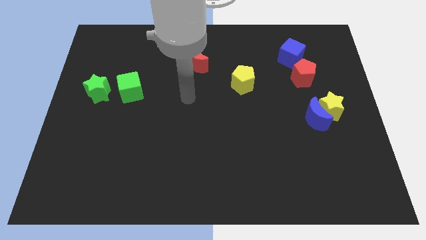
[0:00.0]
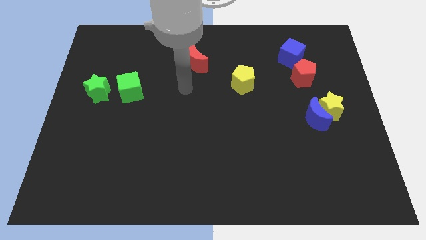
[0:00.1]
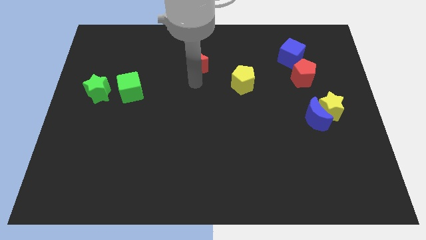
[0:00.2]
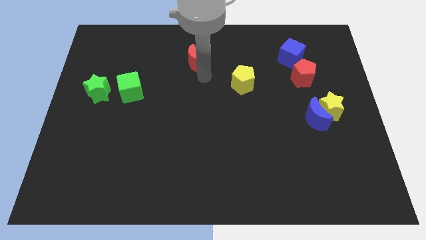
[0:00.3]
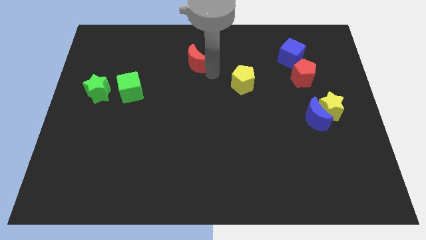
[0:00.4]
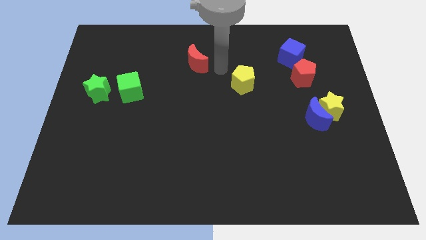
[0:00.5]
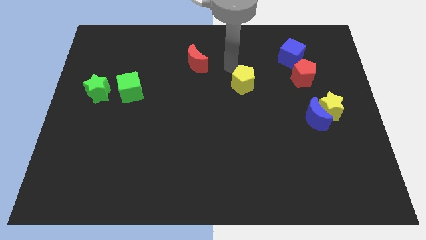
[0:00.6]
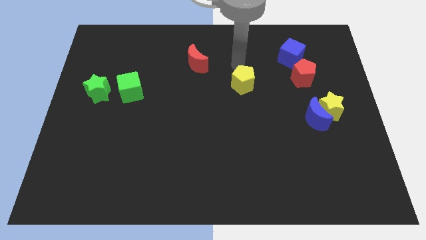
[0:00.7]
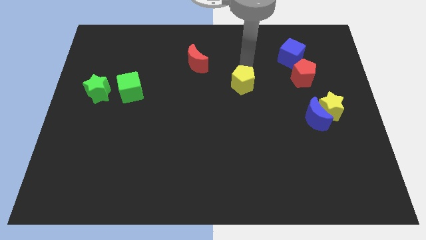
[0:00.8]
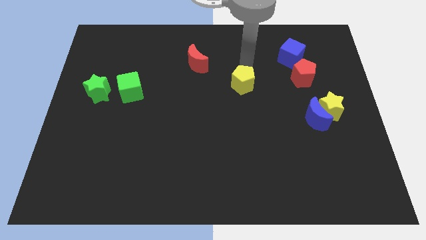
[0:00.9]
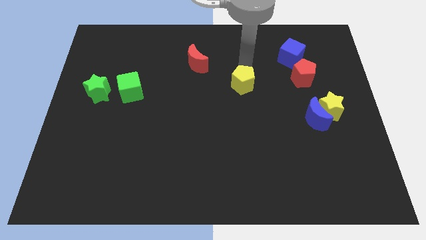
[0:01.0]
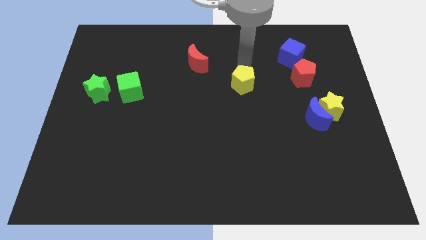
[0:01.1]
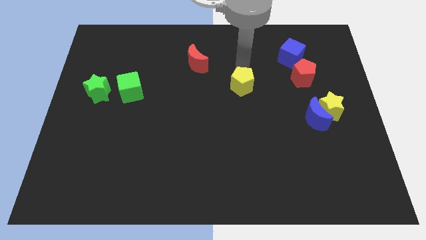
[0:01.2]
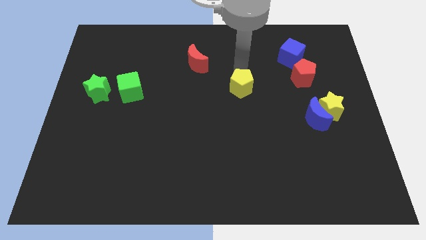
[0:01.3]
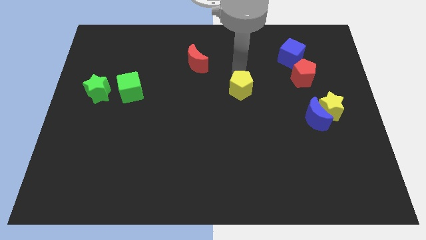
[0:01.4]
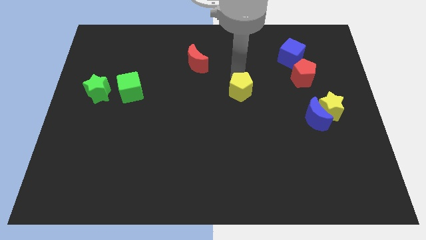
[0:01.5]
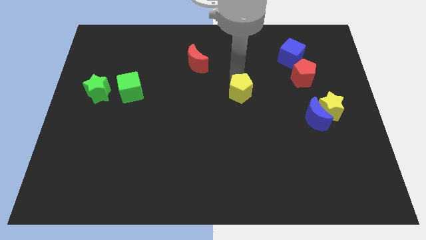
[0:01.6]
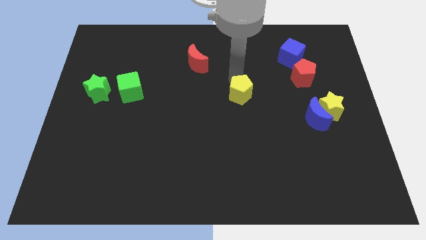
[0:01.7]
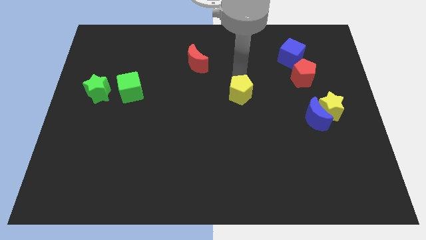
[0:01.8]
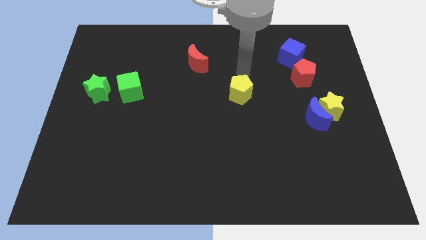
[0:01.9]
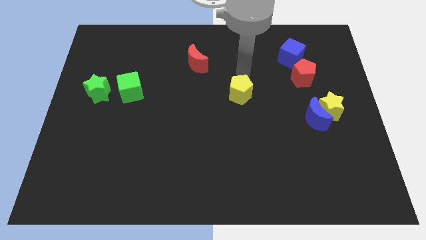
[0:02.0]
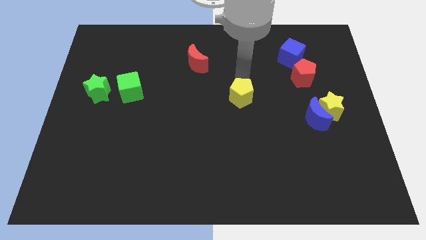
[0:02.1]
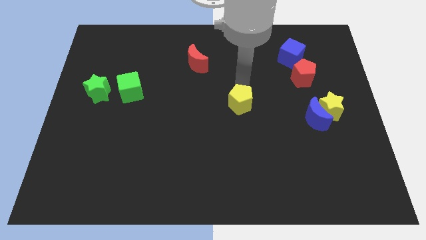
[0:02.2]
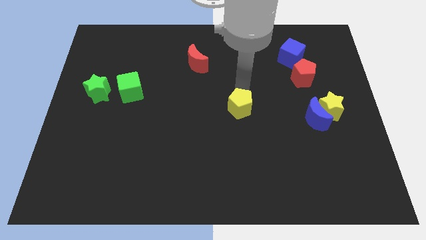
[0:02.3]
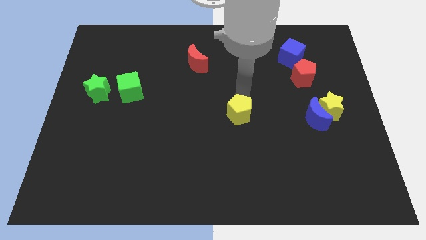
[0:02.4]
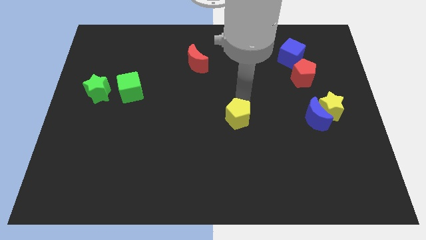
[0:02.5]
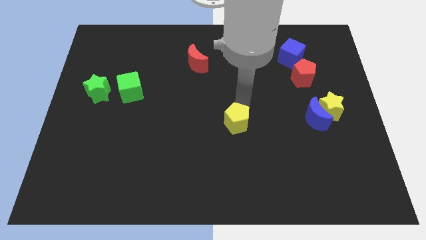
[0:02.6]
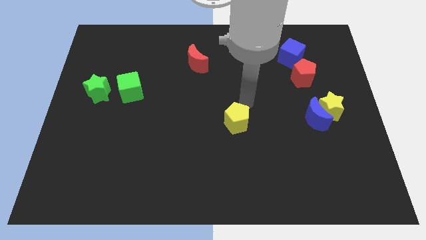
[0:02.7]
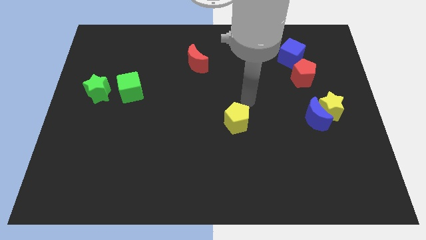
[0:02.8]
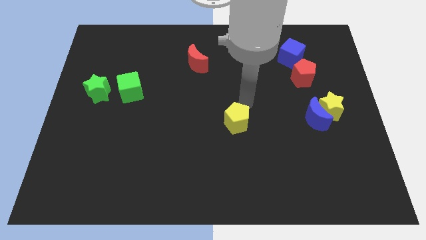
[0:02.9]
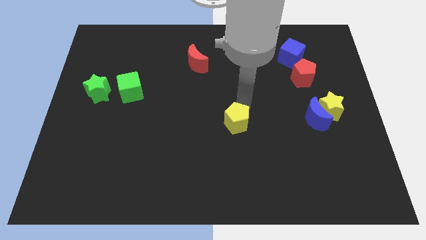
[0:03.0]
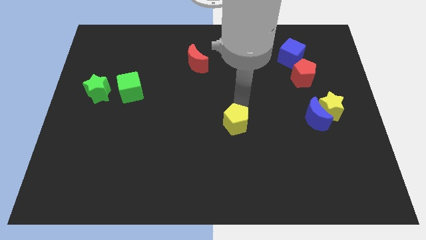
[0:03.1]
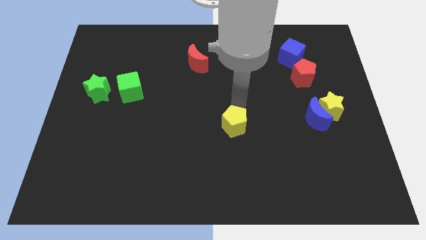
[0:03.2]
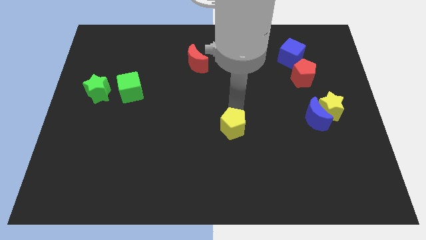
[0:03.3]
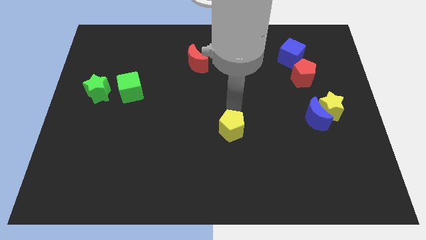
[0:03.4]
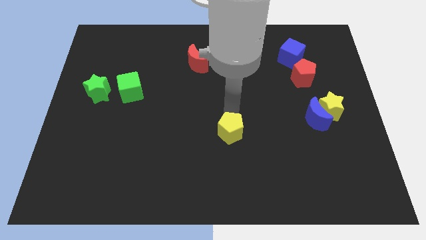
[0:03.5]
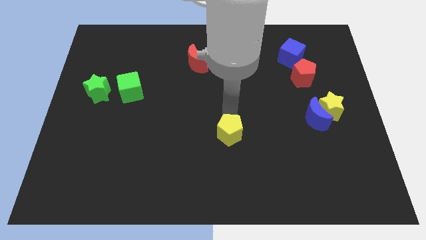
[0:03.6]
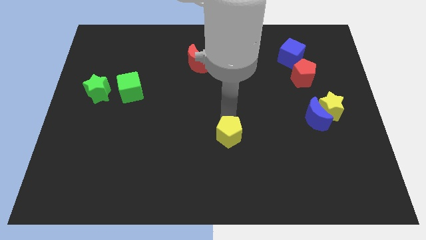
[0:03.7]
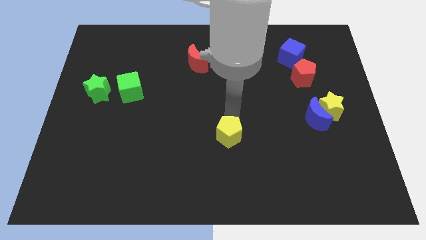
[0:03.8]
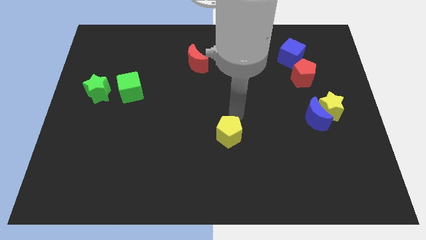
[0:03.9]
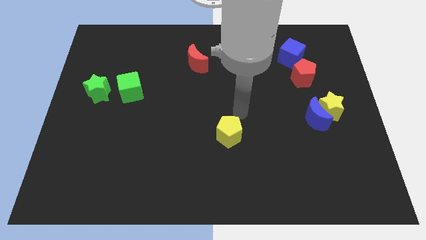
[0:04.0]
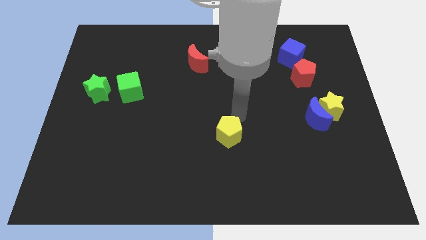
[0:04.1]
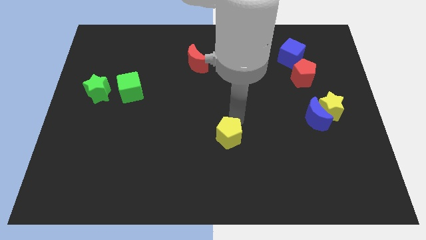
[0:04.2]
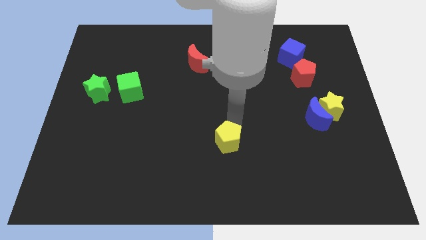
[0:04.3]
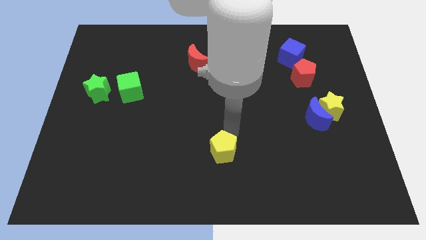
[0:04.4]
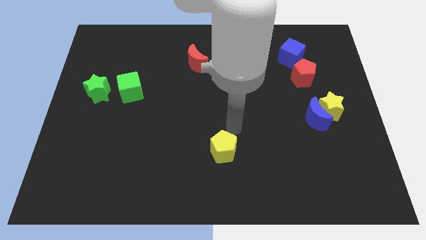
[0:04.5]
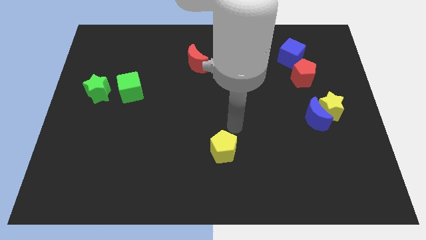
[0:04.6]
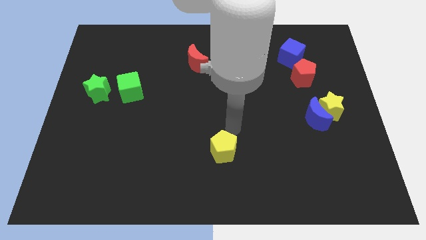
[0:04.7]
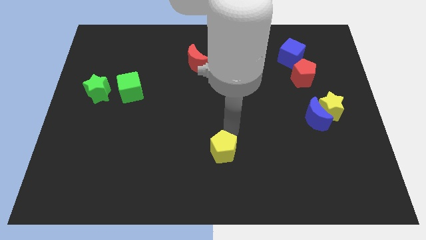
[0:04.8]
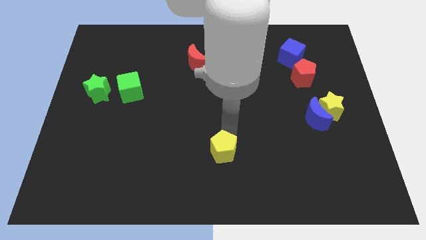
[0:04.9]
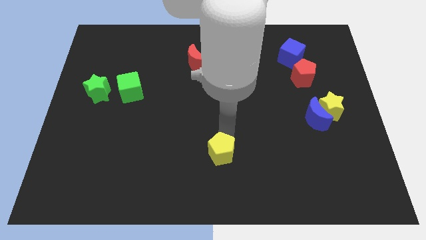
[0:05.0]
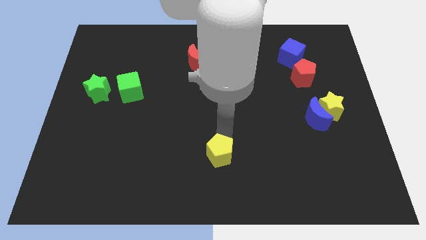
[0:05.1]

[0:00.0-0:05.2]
slide the yellow pentagon to the bottom side
